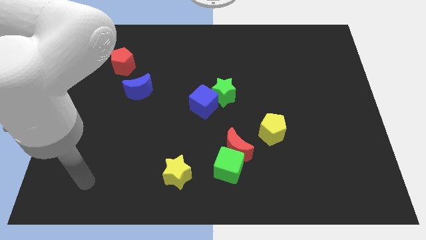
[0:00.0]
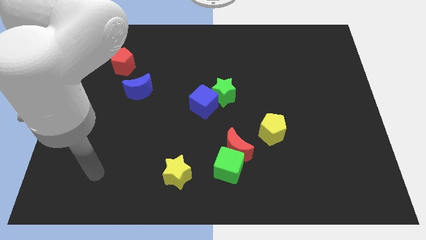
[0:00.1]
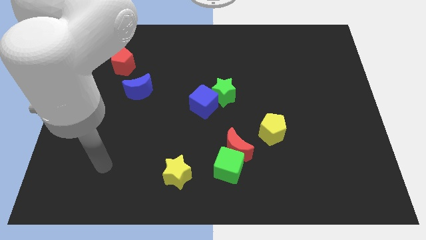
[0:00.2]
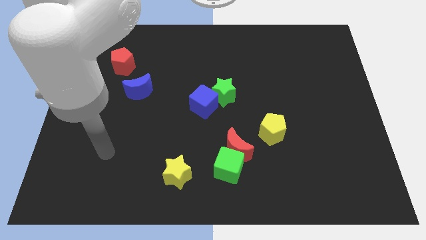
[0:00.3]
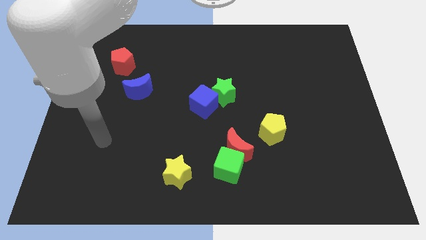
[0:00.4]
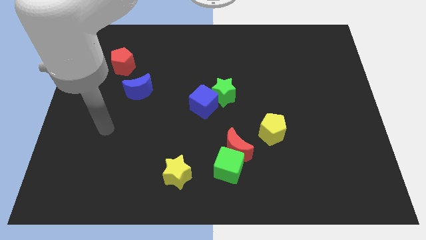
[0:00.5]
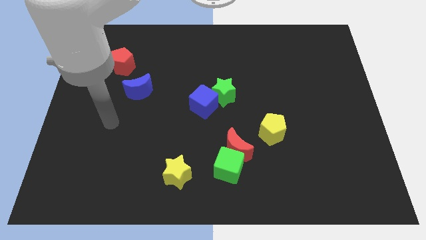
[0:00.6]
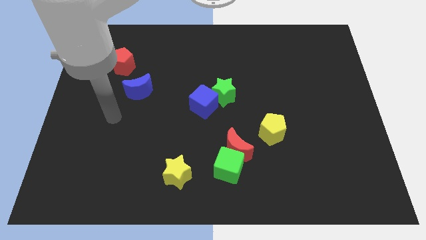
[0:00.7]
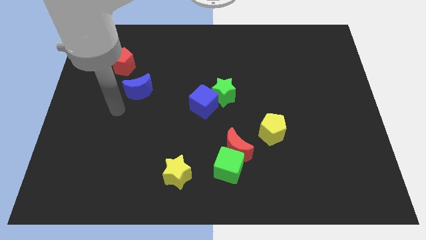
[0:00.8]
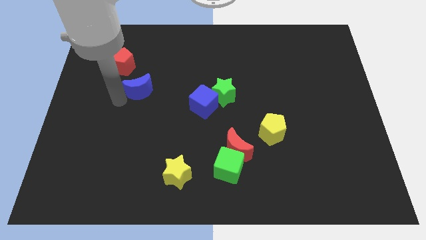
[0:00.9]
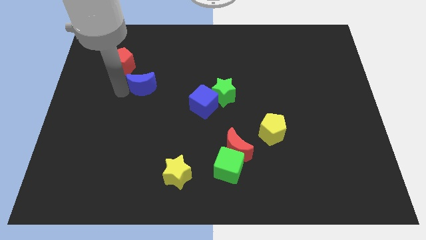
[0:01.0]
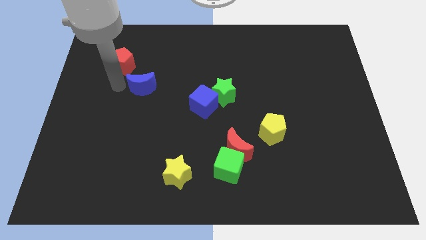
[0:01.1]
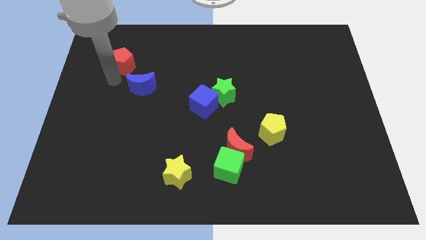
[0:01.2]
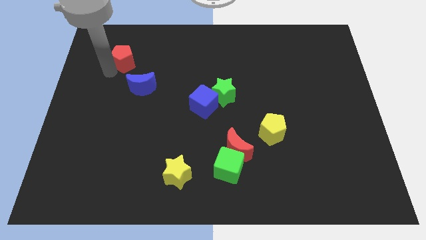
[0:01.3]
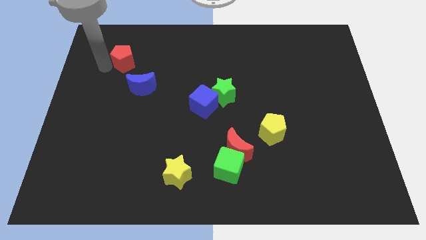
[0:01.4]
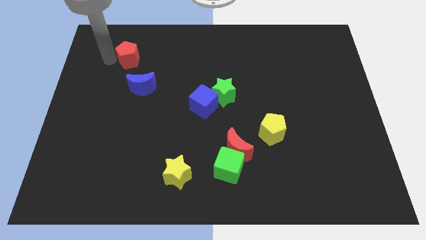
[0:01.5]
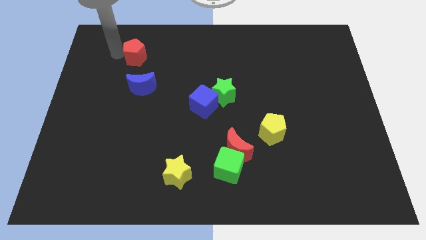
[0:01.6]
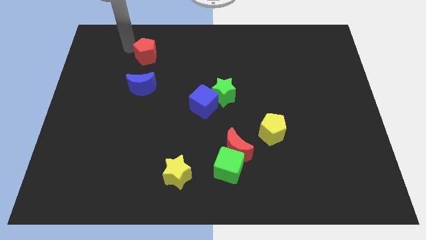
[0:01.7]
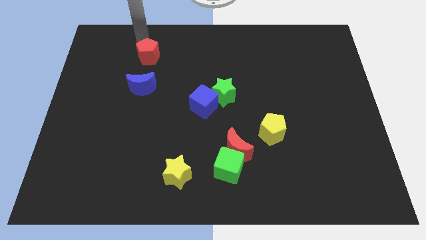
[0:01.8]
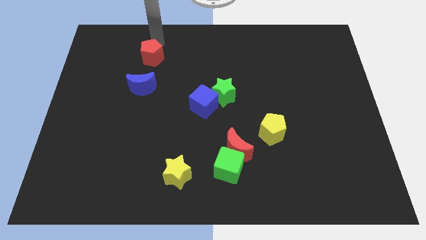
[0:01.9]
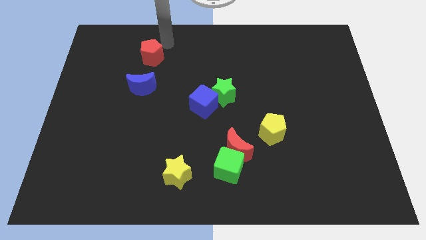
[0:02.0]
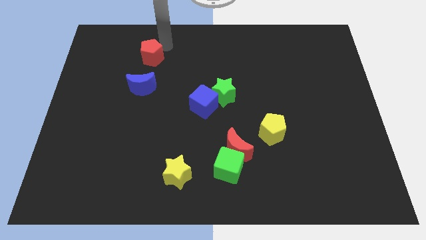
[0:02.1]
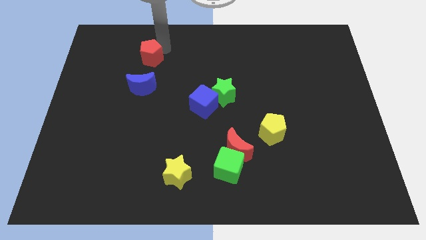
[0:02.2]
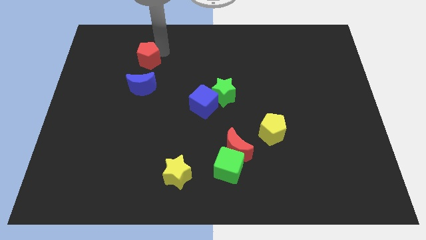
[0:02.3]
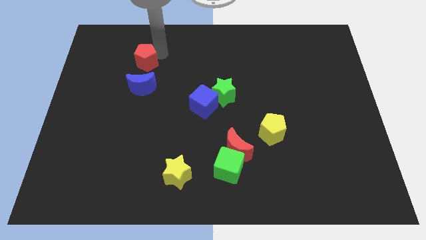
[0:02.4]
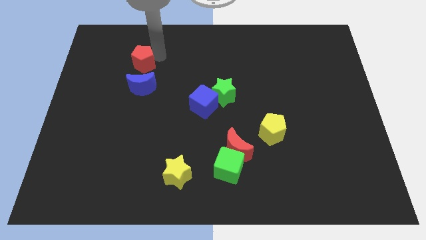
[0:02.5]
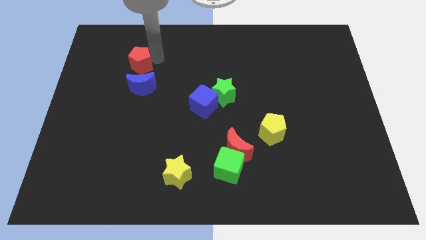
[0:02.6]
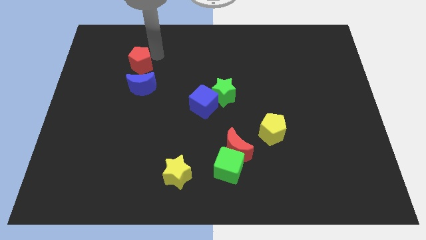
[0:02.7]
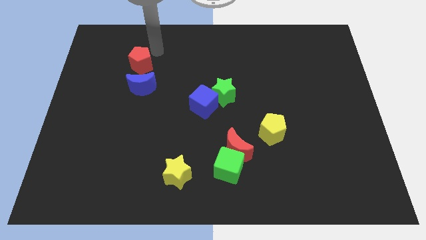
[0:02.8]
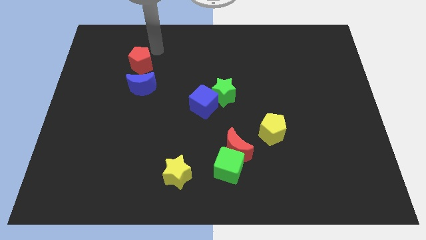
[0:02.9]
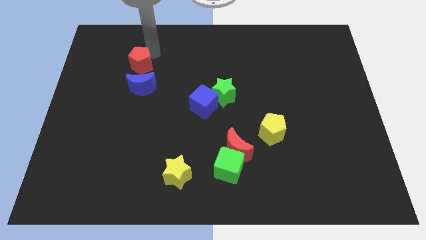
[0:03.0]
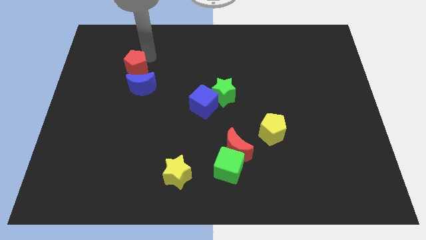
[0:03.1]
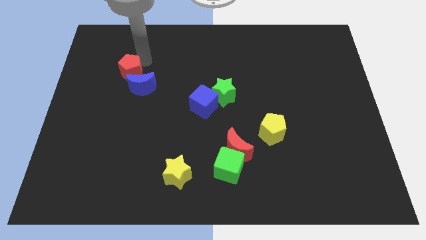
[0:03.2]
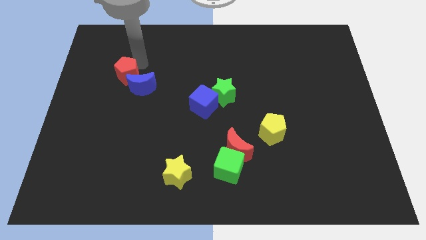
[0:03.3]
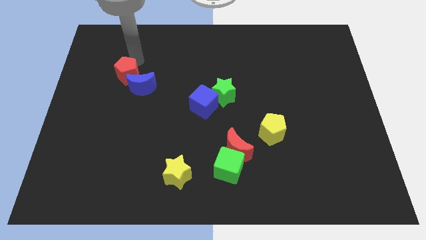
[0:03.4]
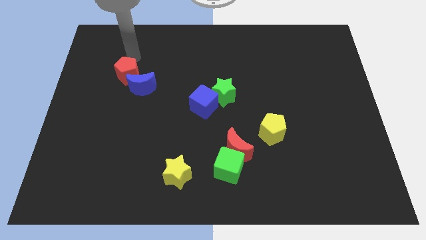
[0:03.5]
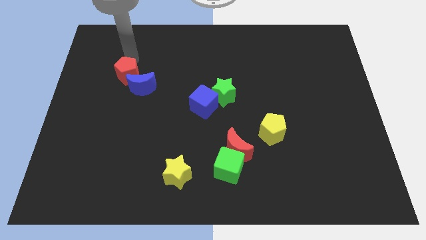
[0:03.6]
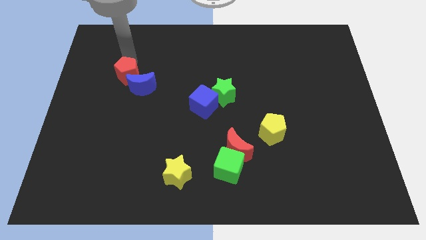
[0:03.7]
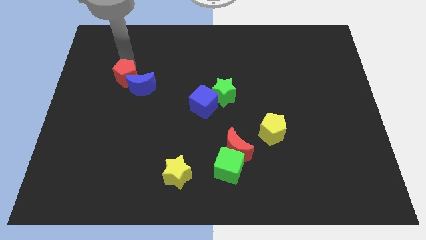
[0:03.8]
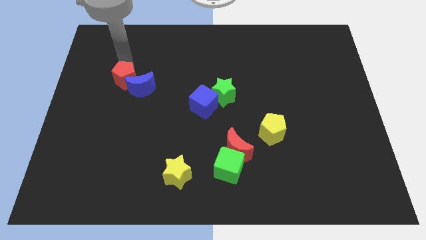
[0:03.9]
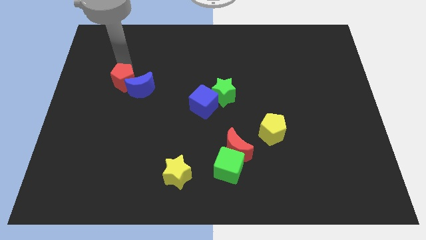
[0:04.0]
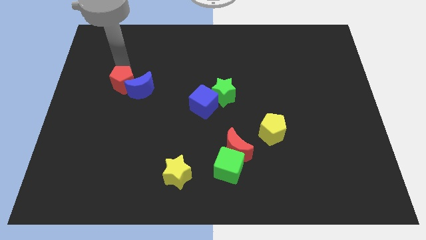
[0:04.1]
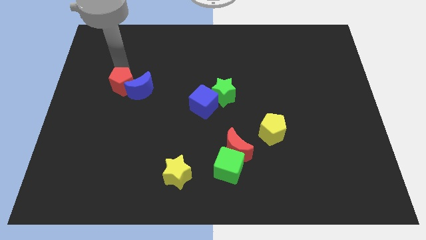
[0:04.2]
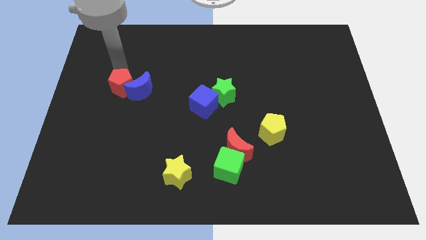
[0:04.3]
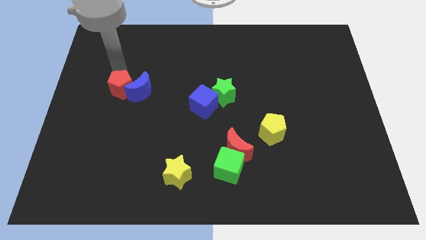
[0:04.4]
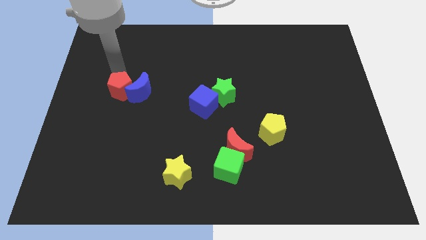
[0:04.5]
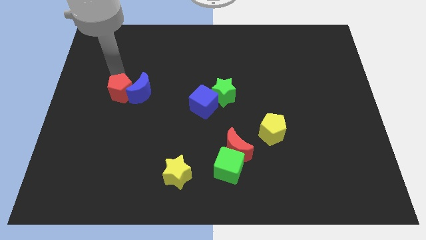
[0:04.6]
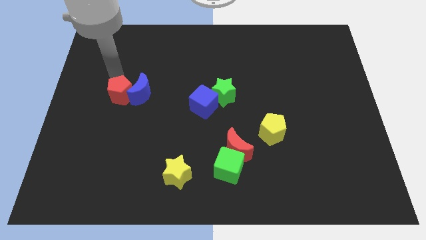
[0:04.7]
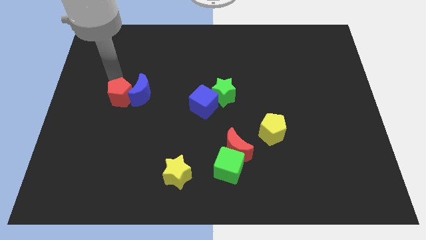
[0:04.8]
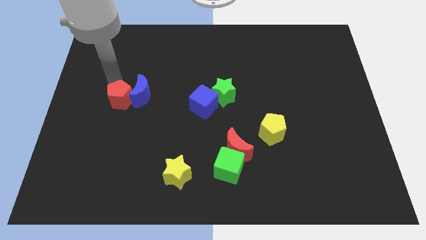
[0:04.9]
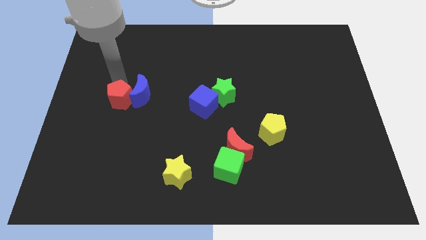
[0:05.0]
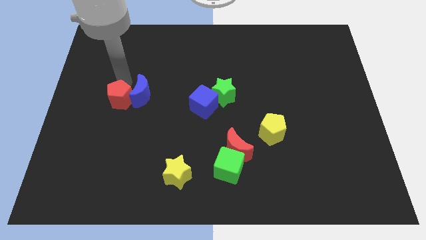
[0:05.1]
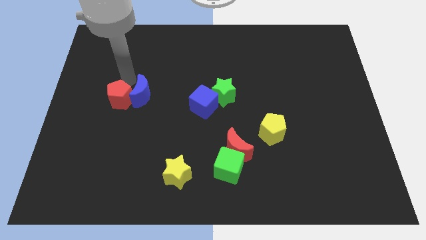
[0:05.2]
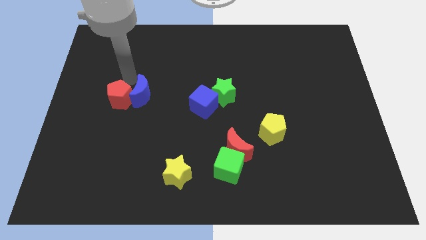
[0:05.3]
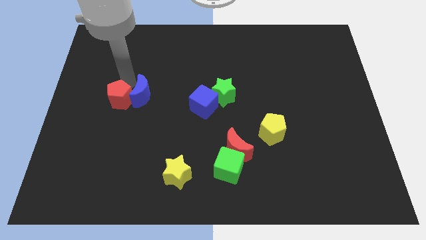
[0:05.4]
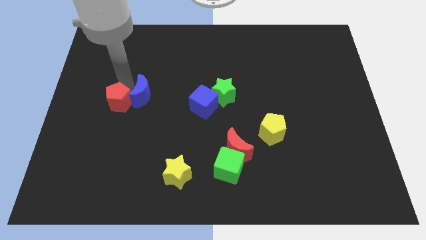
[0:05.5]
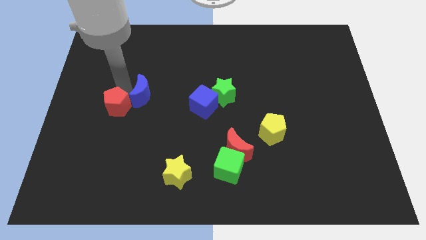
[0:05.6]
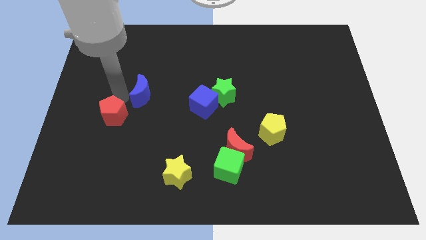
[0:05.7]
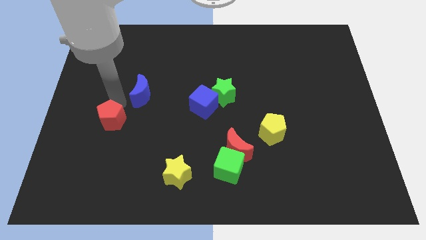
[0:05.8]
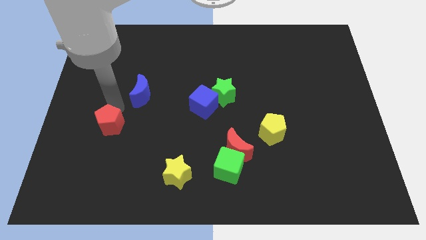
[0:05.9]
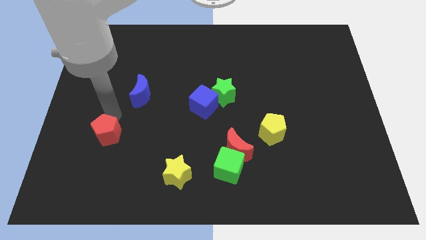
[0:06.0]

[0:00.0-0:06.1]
push the red pentagon downwards

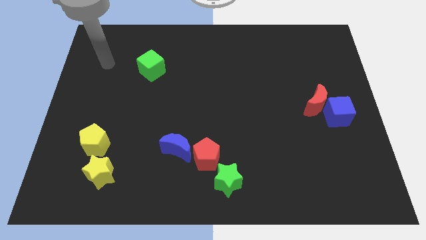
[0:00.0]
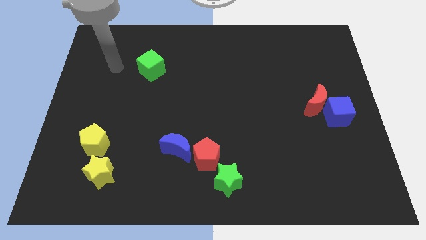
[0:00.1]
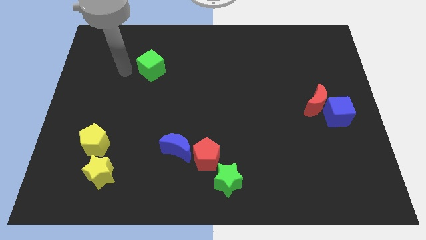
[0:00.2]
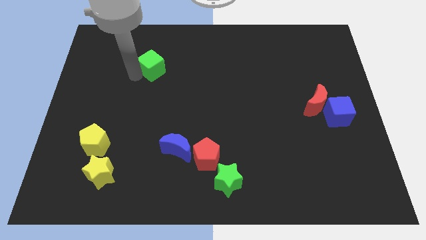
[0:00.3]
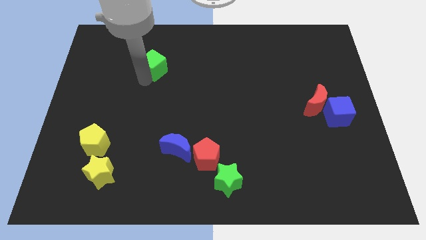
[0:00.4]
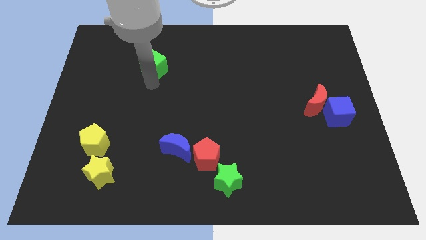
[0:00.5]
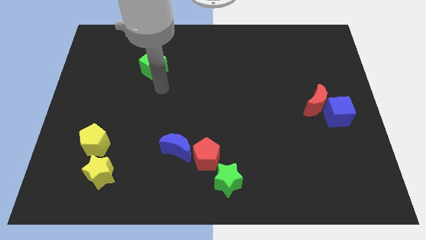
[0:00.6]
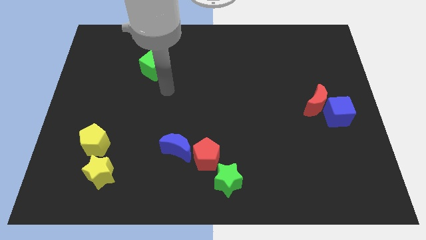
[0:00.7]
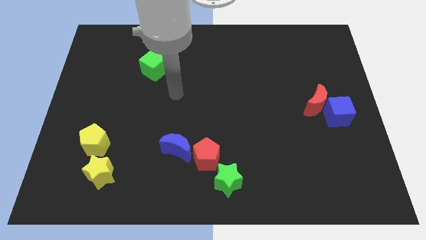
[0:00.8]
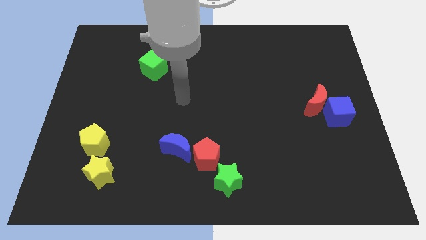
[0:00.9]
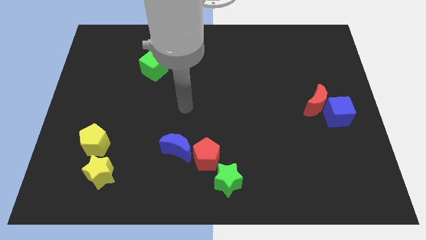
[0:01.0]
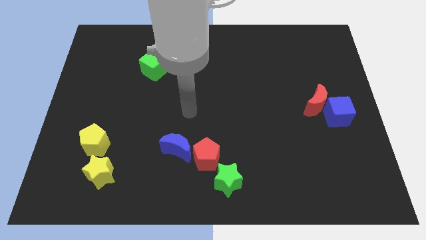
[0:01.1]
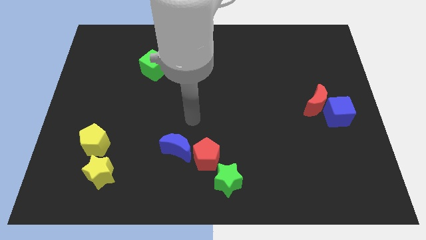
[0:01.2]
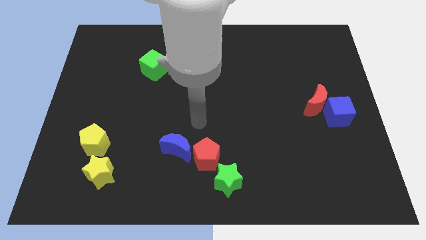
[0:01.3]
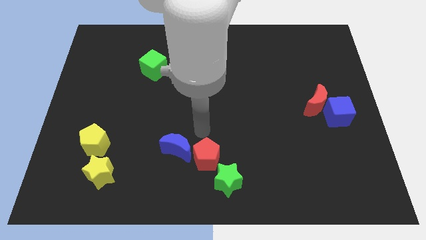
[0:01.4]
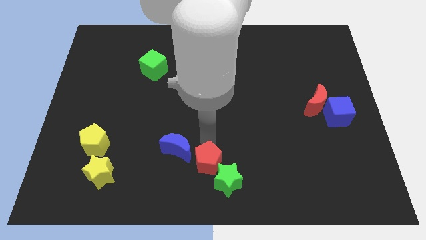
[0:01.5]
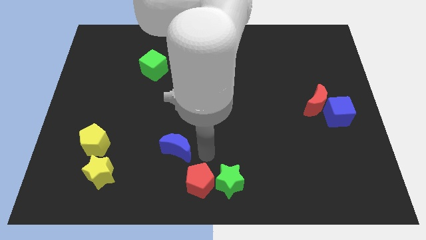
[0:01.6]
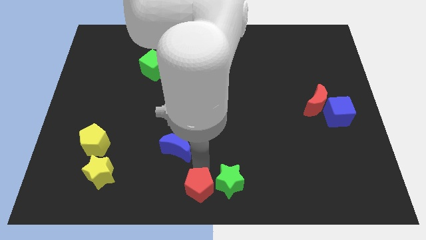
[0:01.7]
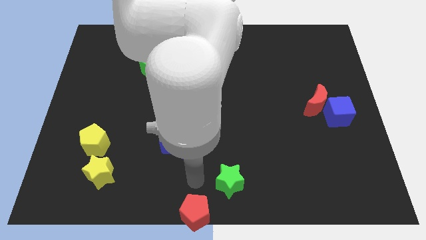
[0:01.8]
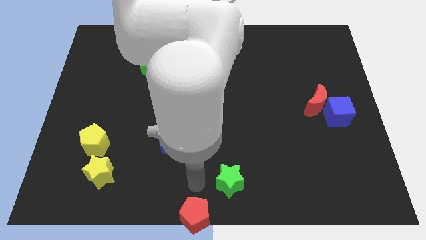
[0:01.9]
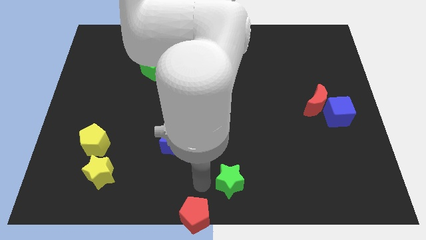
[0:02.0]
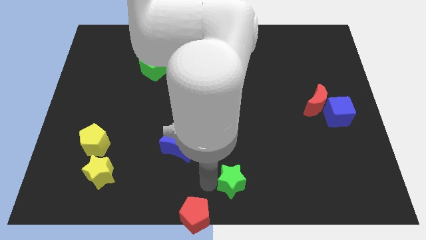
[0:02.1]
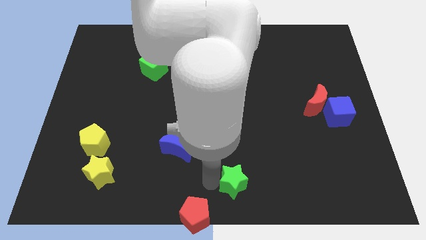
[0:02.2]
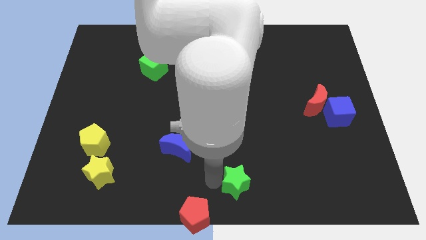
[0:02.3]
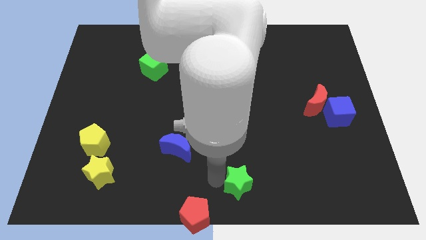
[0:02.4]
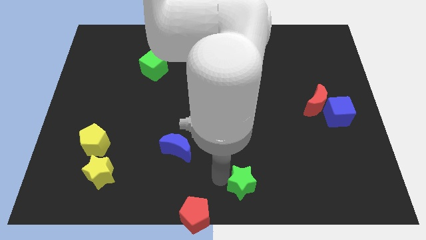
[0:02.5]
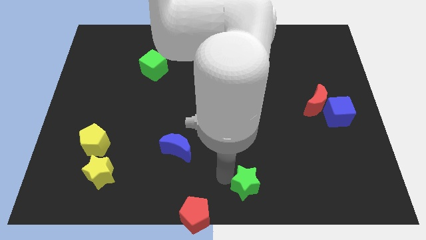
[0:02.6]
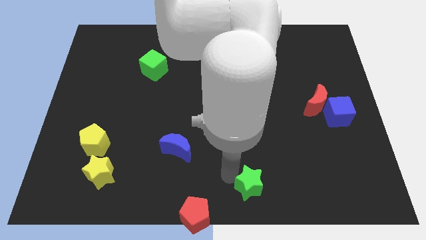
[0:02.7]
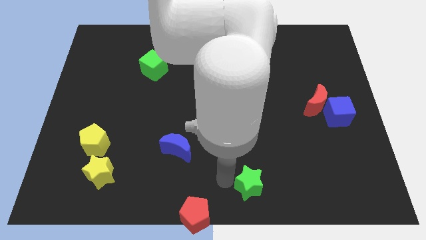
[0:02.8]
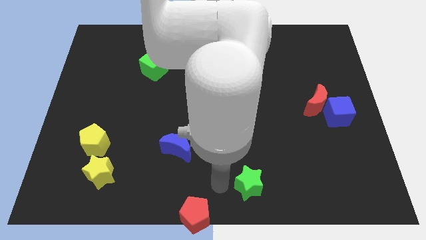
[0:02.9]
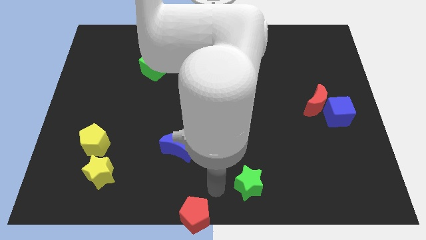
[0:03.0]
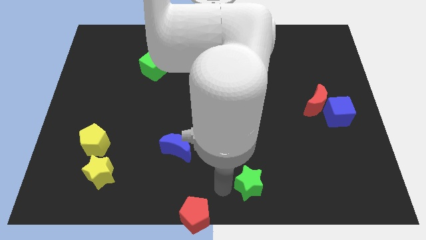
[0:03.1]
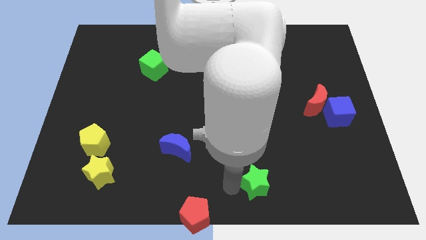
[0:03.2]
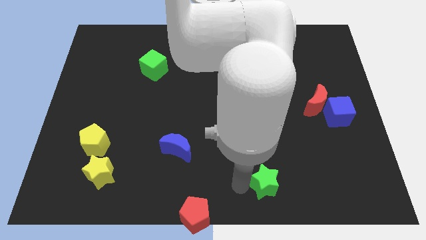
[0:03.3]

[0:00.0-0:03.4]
slide the green star a bit right
